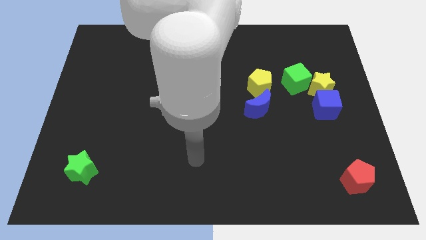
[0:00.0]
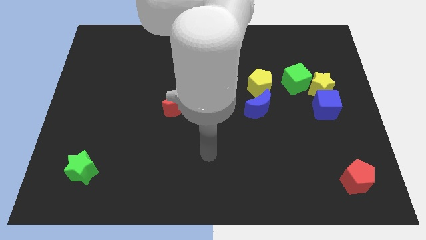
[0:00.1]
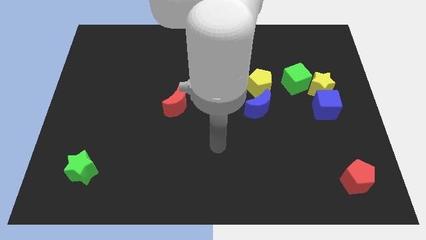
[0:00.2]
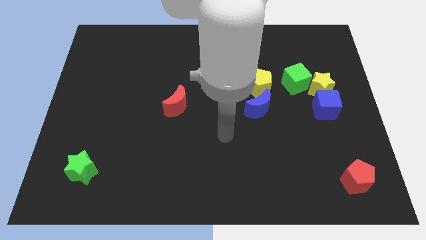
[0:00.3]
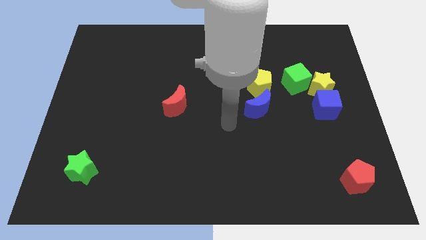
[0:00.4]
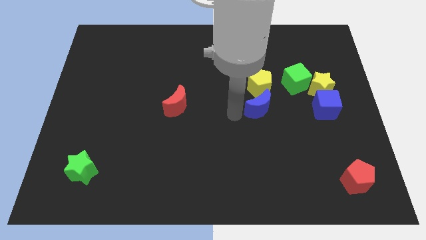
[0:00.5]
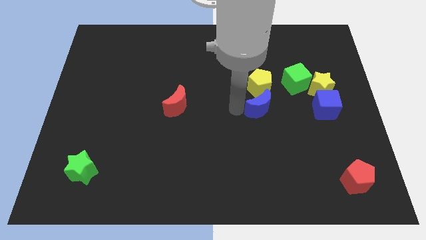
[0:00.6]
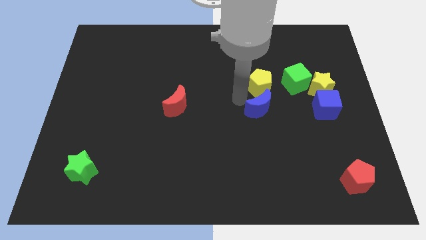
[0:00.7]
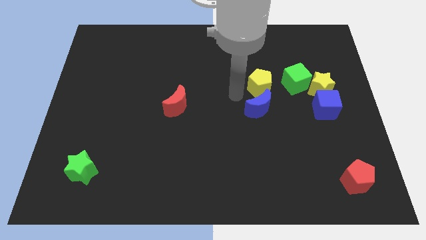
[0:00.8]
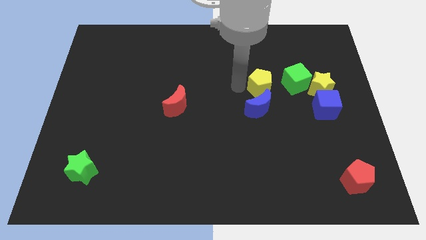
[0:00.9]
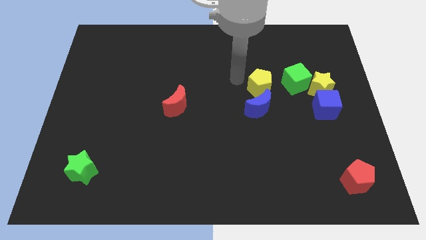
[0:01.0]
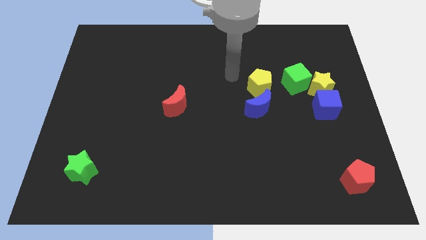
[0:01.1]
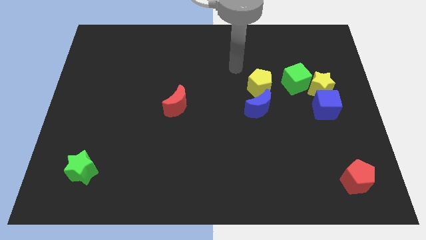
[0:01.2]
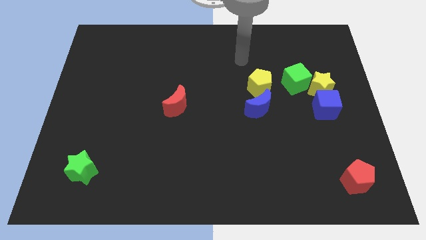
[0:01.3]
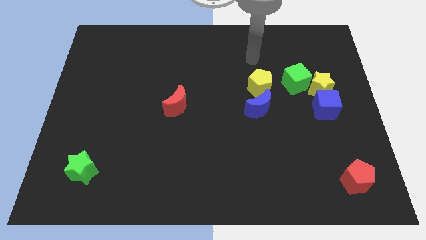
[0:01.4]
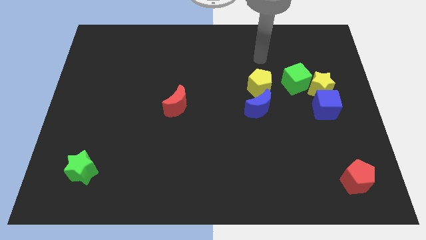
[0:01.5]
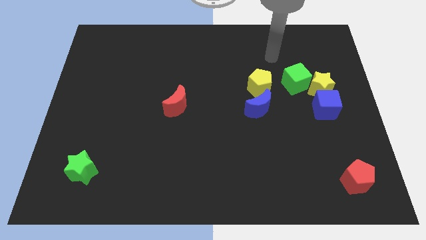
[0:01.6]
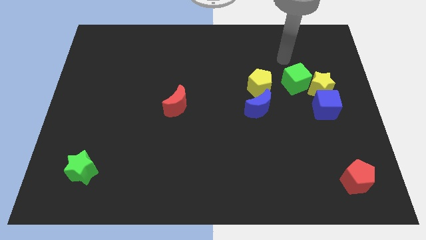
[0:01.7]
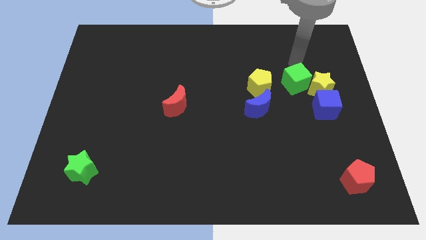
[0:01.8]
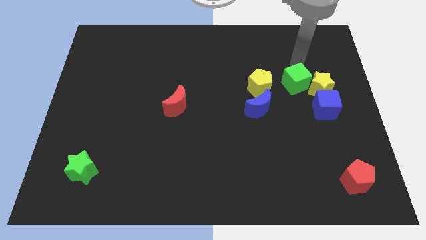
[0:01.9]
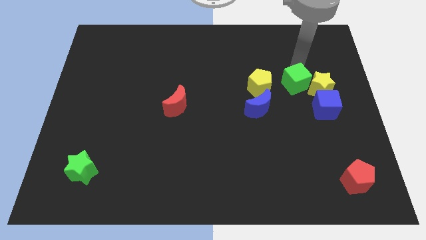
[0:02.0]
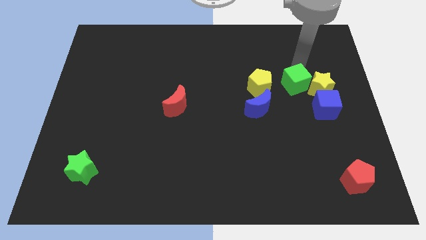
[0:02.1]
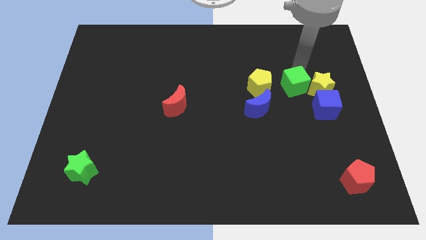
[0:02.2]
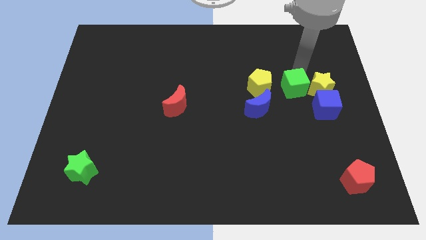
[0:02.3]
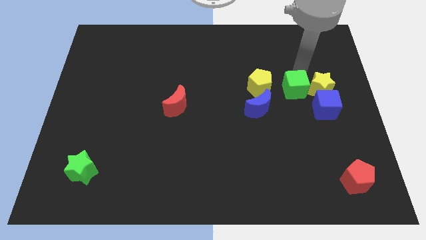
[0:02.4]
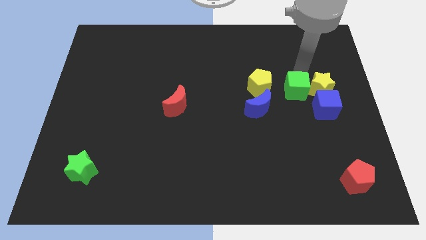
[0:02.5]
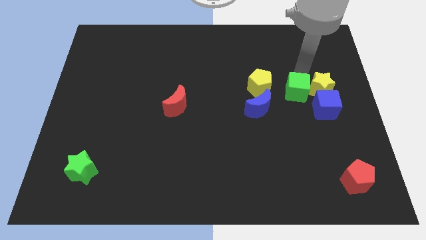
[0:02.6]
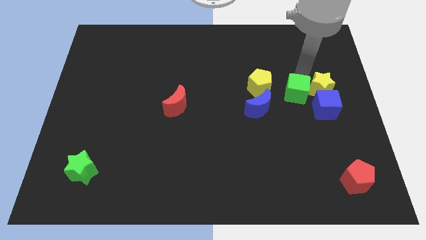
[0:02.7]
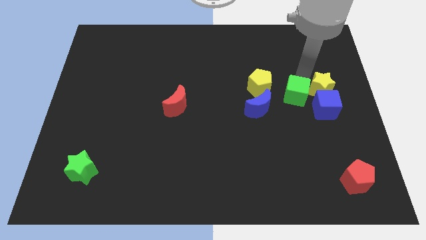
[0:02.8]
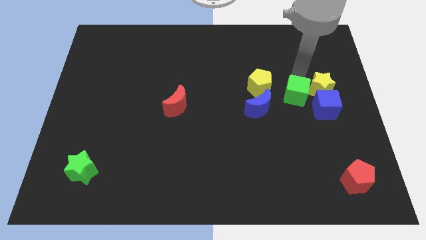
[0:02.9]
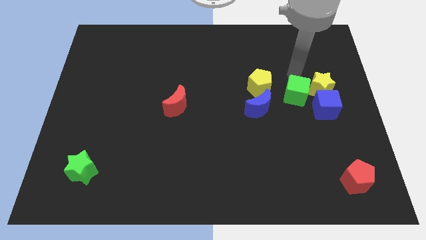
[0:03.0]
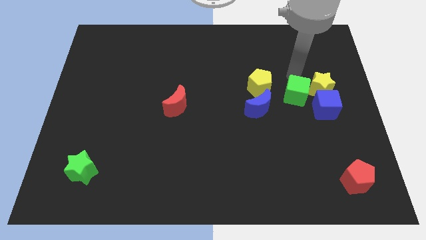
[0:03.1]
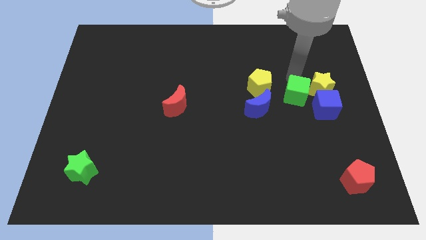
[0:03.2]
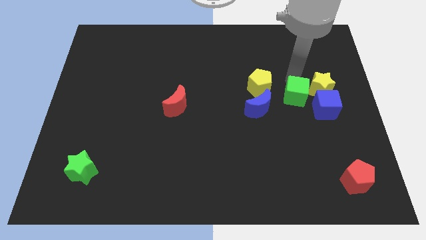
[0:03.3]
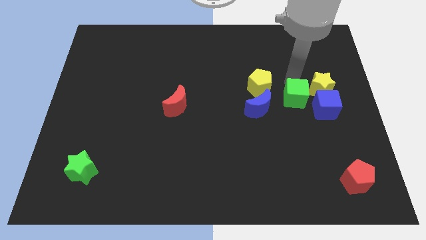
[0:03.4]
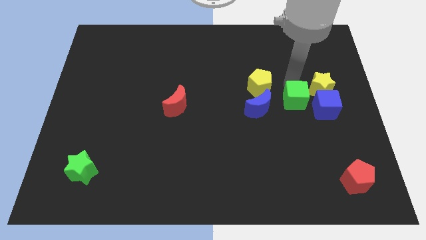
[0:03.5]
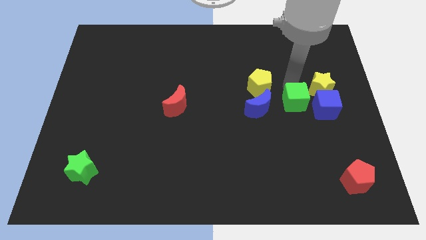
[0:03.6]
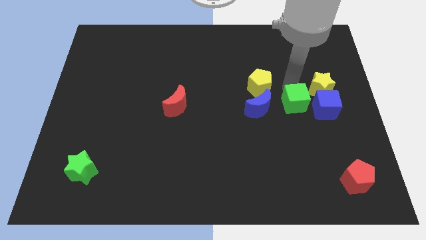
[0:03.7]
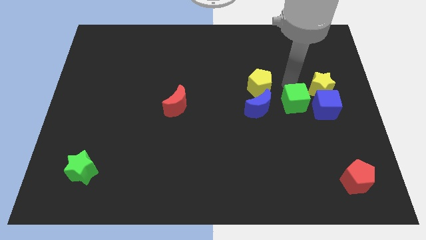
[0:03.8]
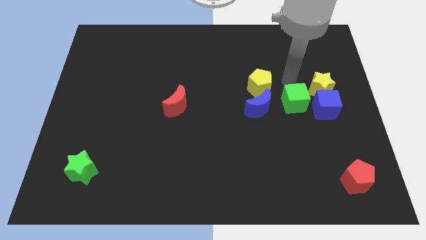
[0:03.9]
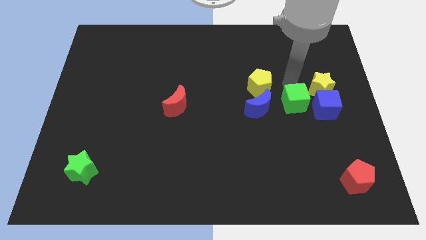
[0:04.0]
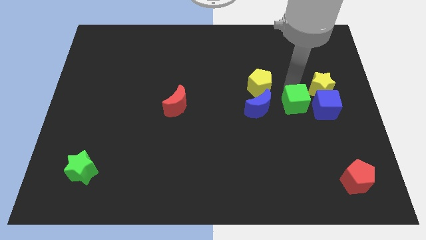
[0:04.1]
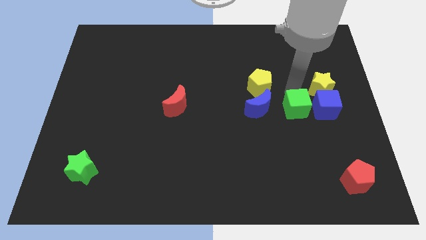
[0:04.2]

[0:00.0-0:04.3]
push the green cube downwards somewhat

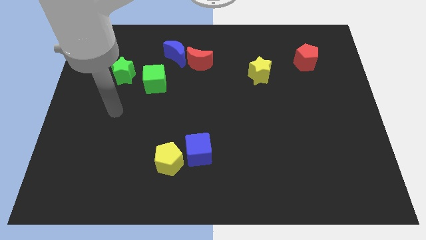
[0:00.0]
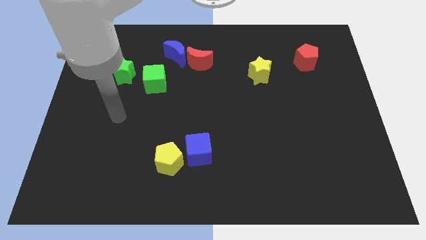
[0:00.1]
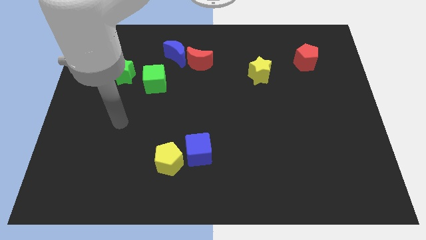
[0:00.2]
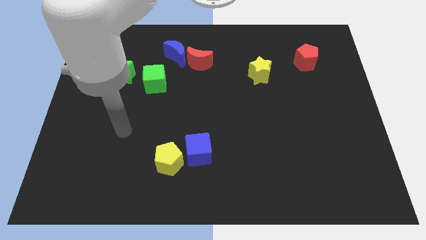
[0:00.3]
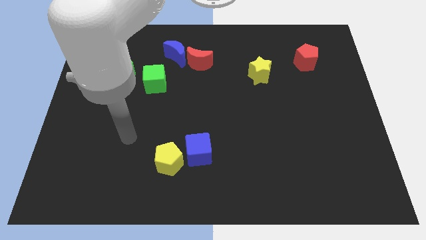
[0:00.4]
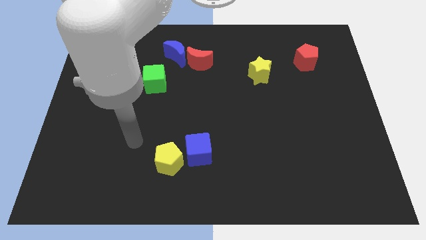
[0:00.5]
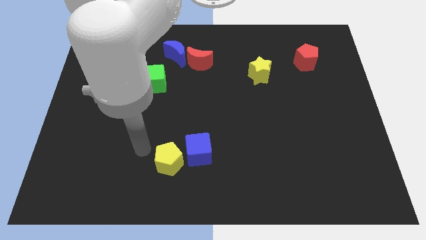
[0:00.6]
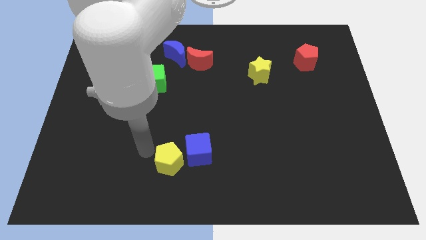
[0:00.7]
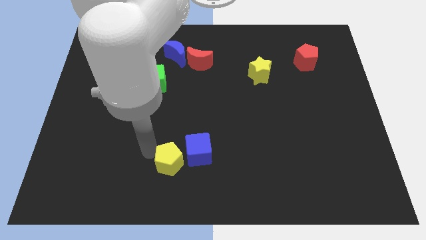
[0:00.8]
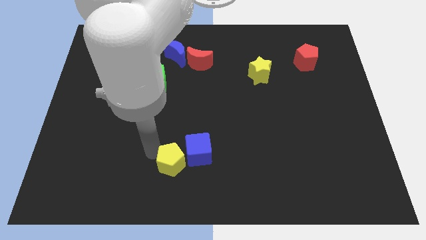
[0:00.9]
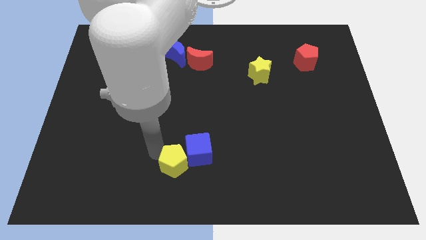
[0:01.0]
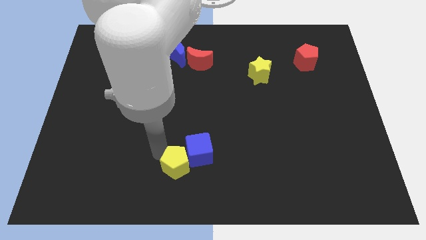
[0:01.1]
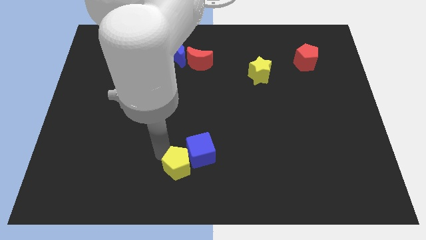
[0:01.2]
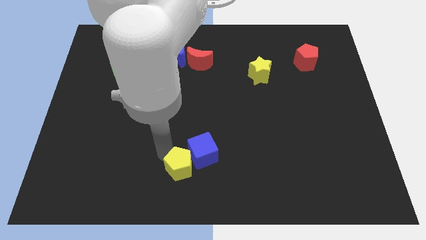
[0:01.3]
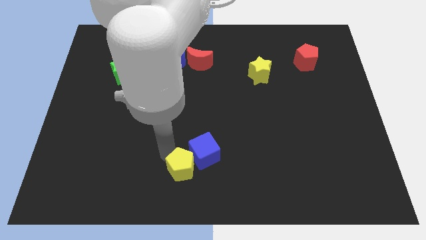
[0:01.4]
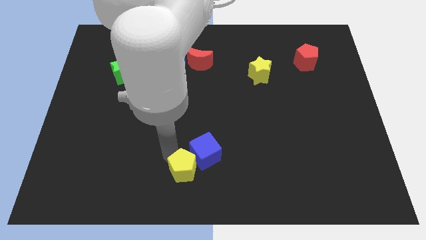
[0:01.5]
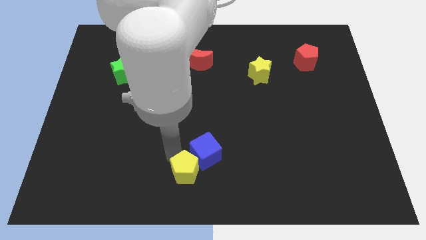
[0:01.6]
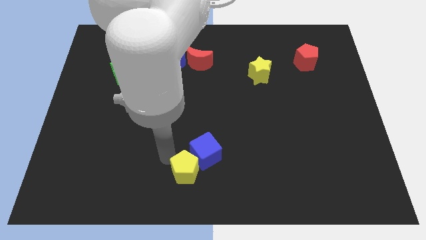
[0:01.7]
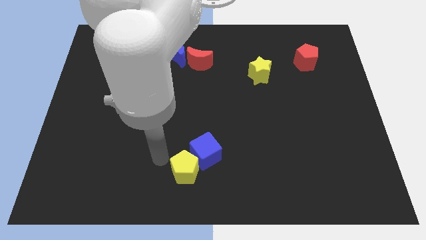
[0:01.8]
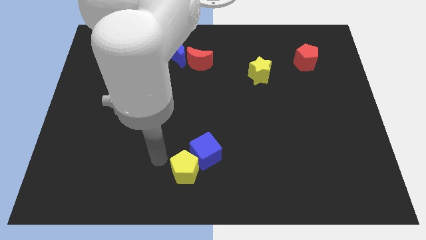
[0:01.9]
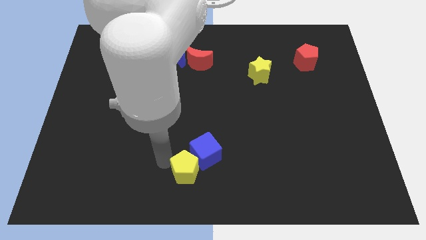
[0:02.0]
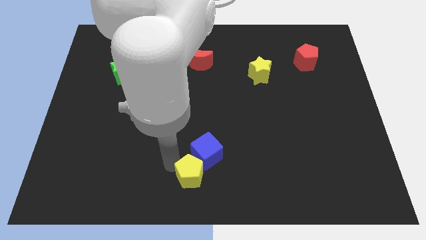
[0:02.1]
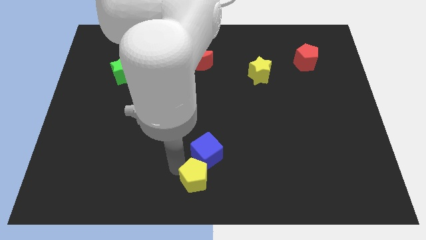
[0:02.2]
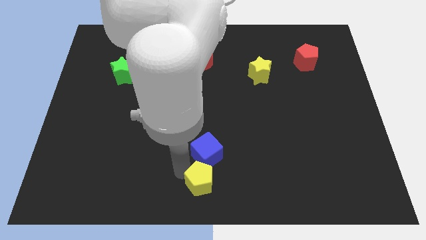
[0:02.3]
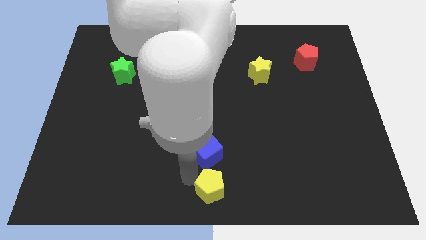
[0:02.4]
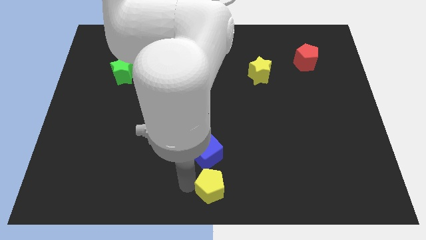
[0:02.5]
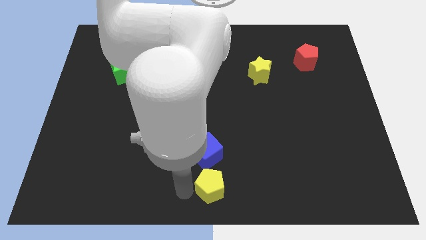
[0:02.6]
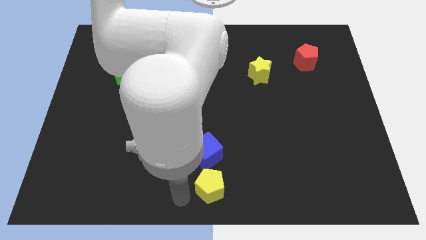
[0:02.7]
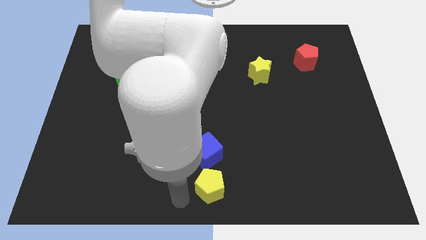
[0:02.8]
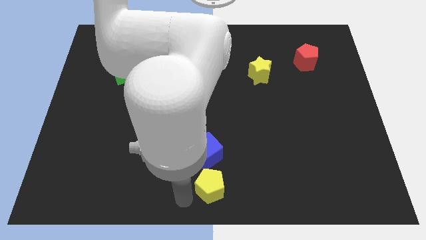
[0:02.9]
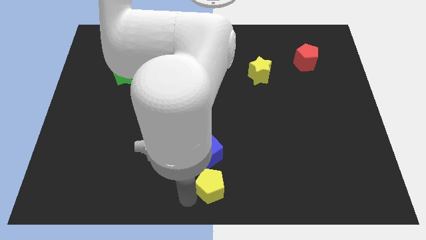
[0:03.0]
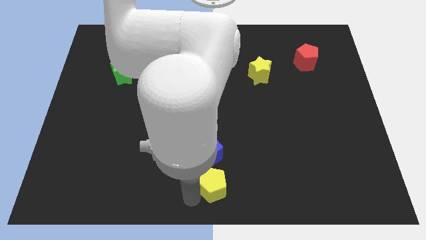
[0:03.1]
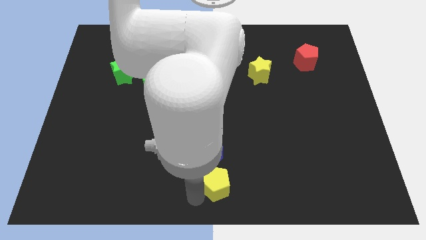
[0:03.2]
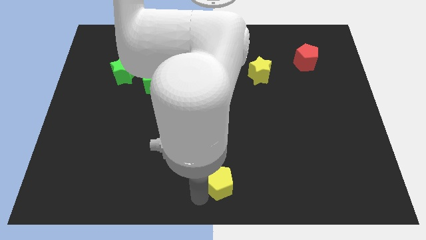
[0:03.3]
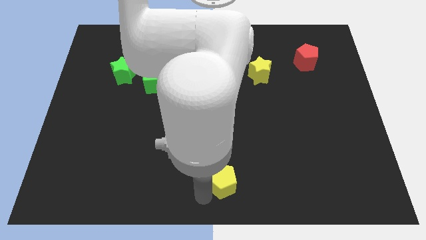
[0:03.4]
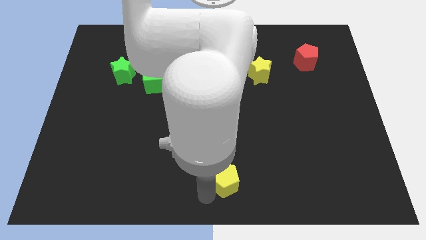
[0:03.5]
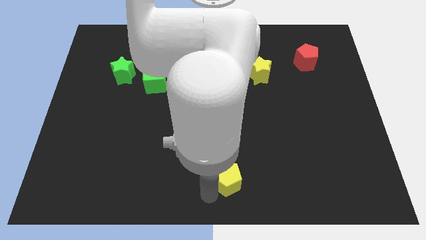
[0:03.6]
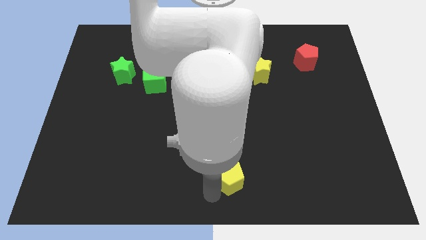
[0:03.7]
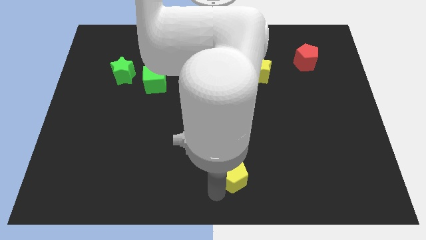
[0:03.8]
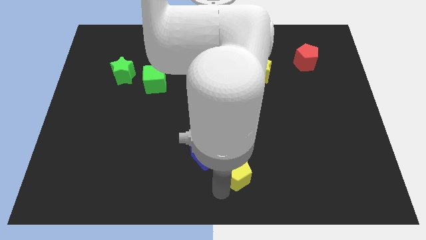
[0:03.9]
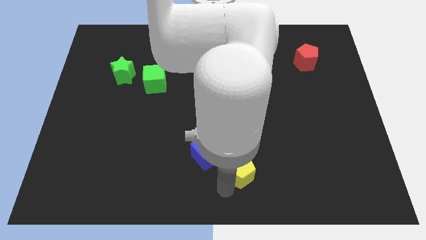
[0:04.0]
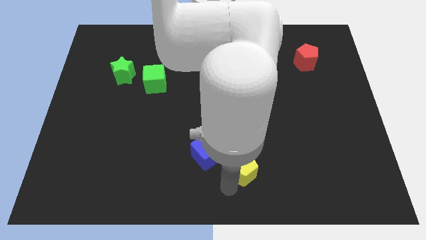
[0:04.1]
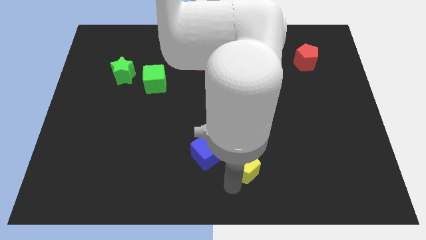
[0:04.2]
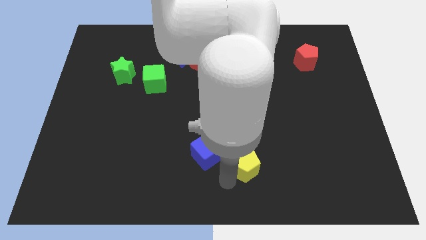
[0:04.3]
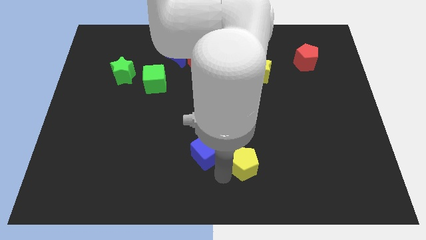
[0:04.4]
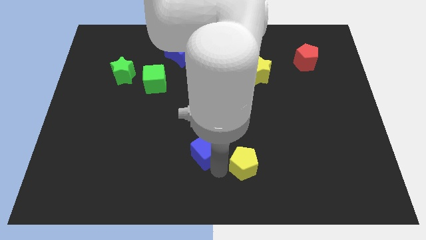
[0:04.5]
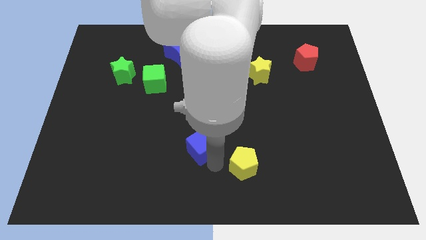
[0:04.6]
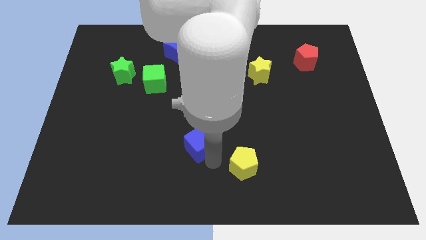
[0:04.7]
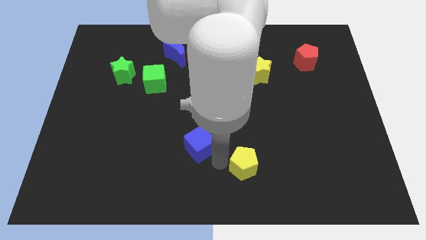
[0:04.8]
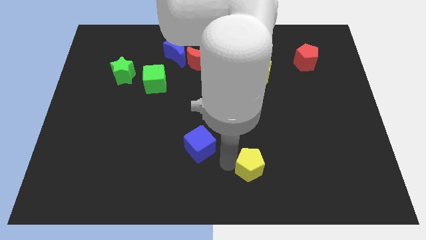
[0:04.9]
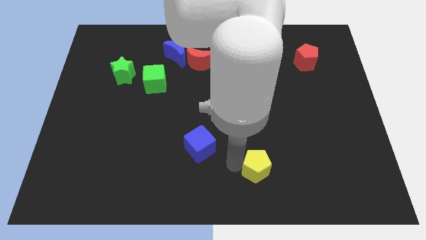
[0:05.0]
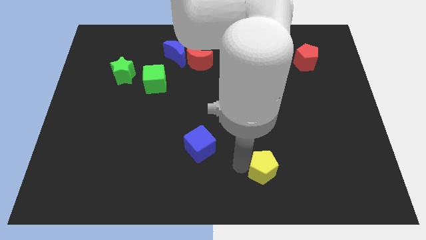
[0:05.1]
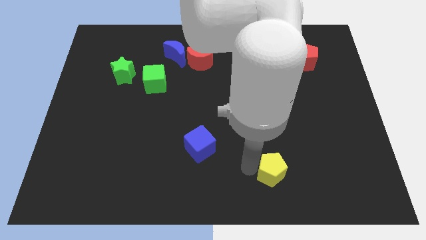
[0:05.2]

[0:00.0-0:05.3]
move the yellow pentagon right
